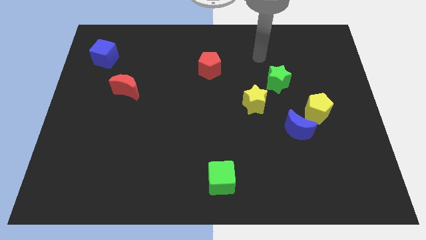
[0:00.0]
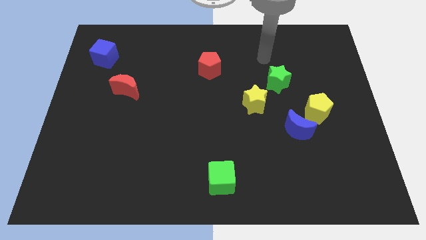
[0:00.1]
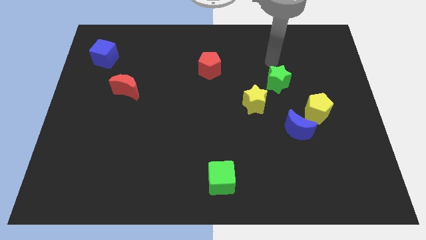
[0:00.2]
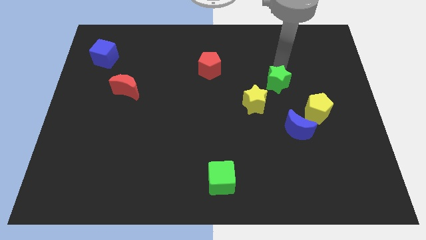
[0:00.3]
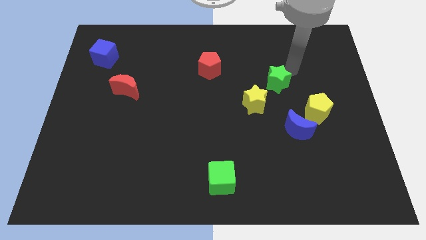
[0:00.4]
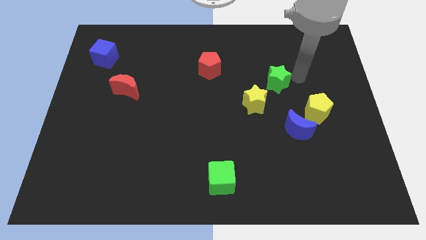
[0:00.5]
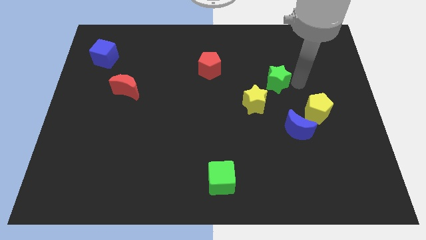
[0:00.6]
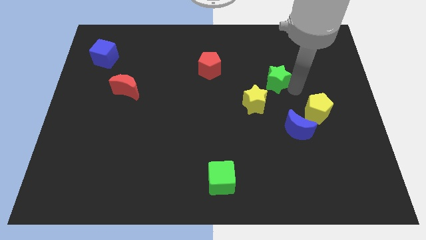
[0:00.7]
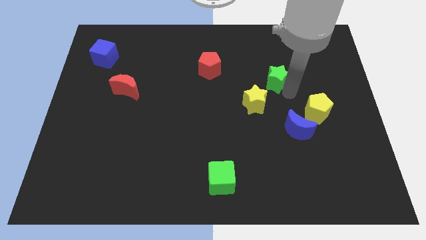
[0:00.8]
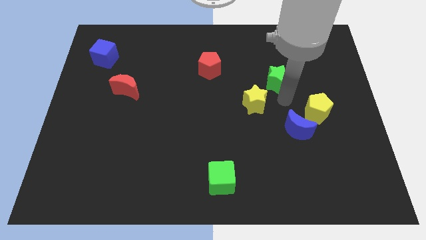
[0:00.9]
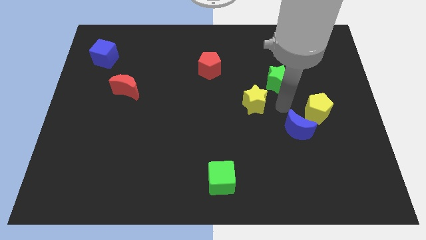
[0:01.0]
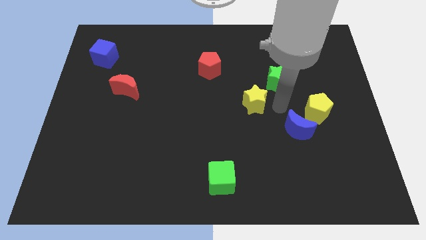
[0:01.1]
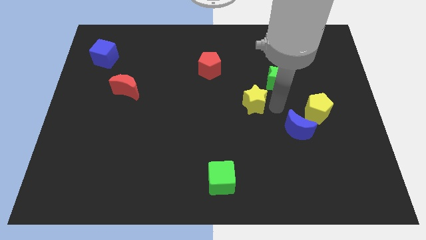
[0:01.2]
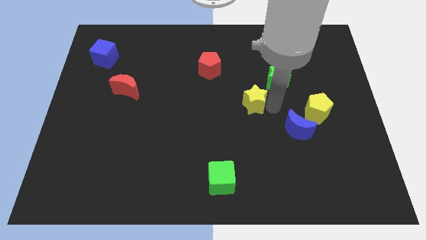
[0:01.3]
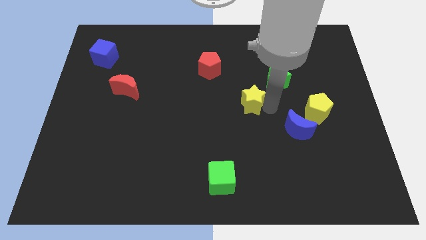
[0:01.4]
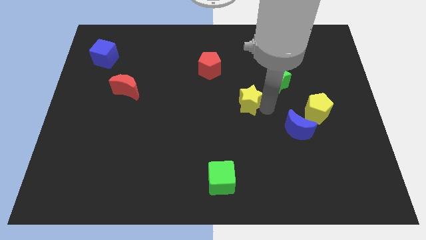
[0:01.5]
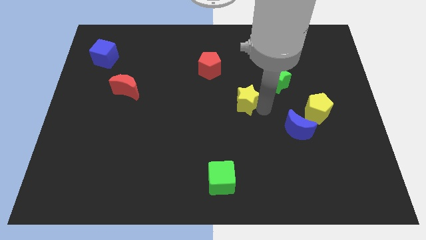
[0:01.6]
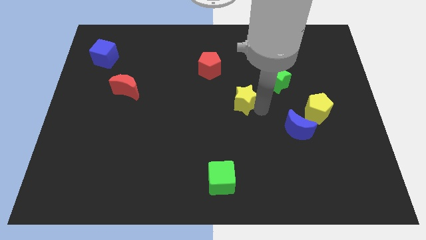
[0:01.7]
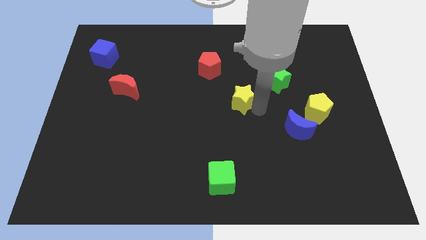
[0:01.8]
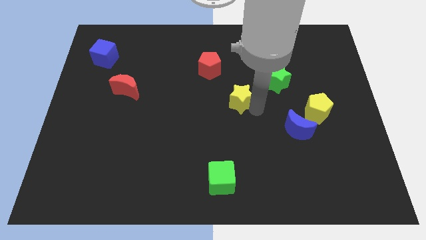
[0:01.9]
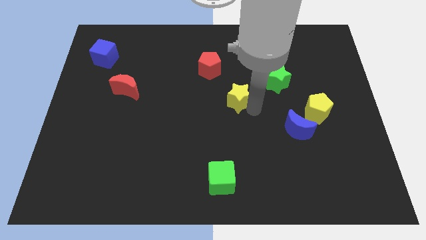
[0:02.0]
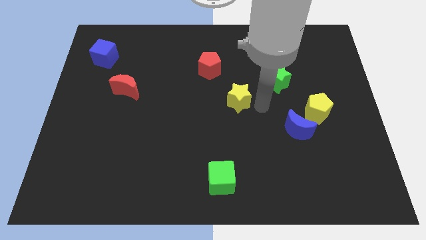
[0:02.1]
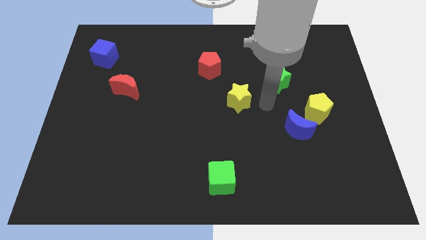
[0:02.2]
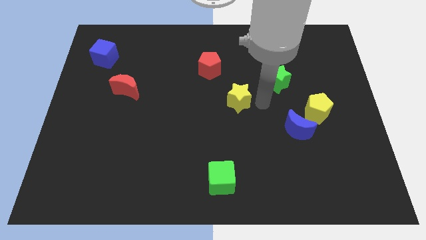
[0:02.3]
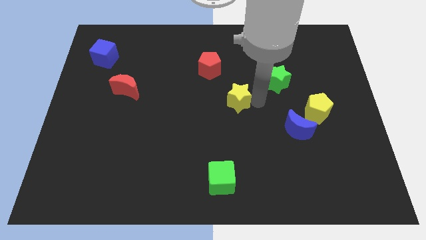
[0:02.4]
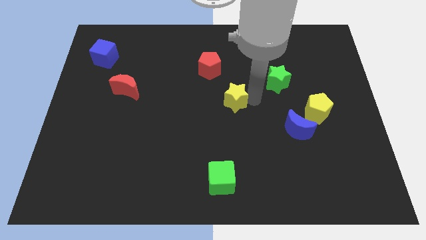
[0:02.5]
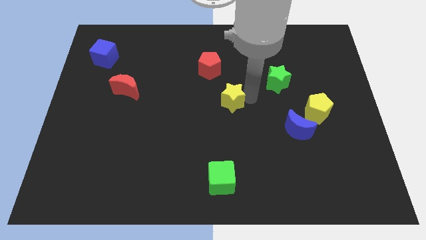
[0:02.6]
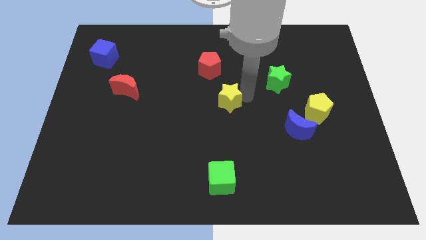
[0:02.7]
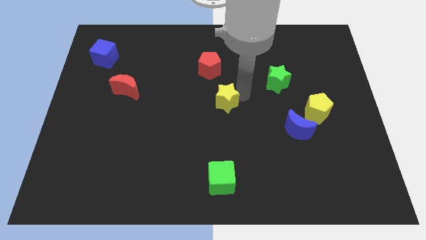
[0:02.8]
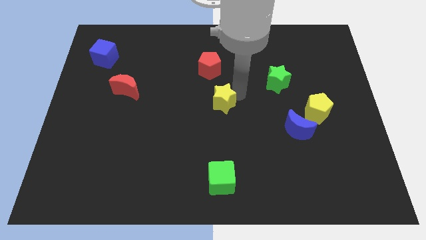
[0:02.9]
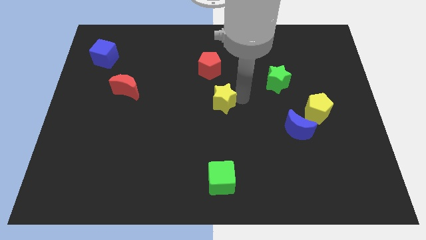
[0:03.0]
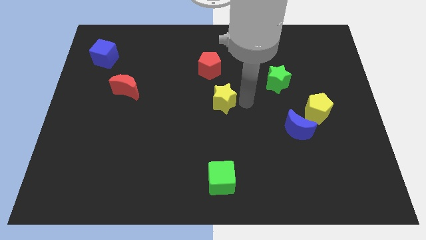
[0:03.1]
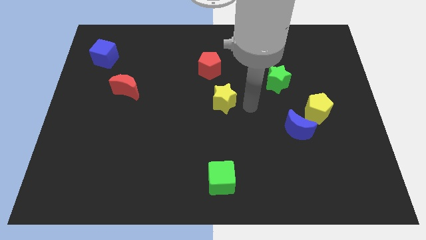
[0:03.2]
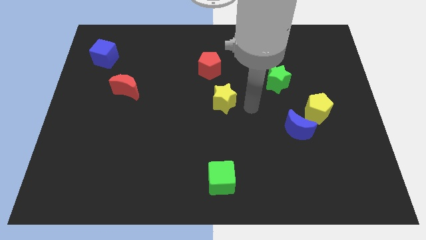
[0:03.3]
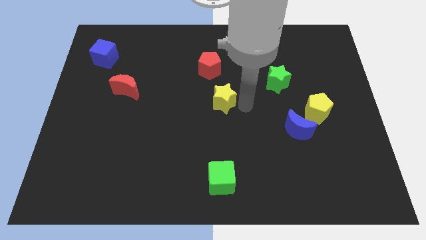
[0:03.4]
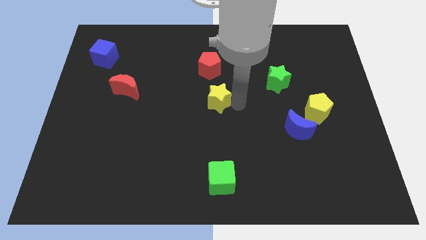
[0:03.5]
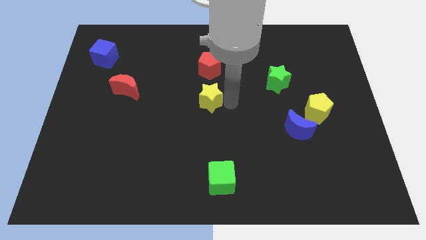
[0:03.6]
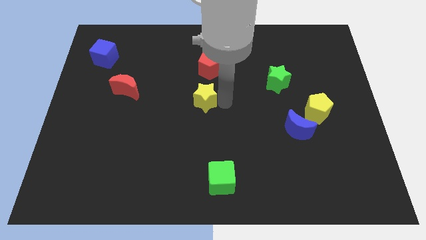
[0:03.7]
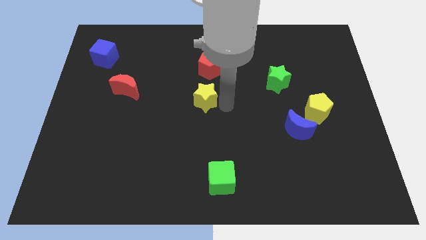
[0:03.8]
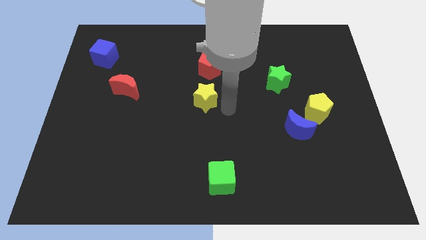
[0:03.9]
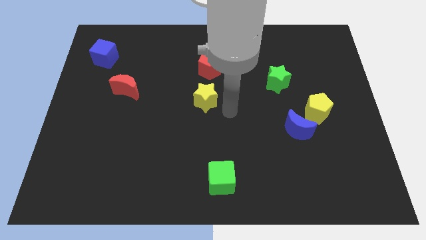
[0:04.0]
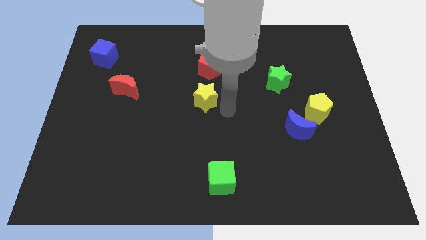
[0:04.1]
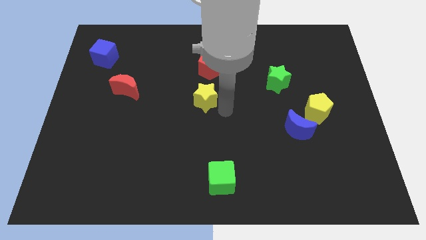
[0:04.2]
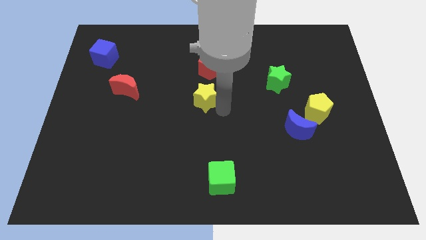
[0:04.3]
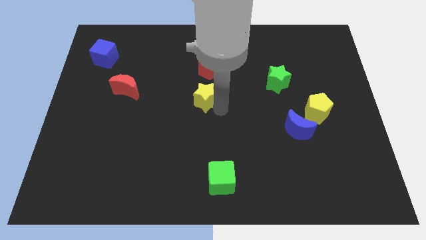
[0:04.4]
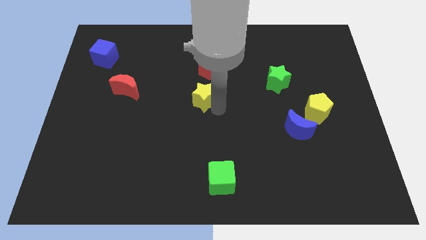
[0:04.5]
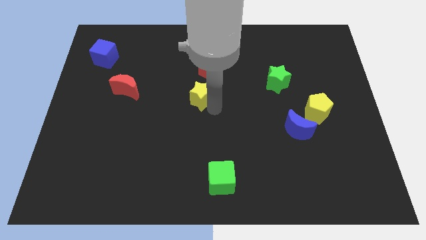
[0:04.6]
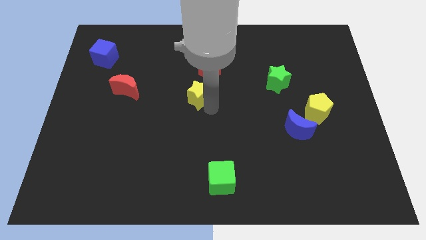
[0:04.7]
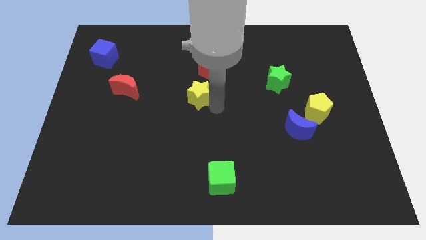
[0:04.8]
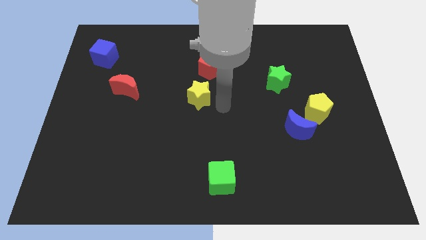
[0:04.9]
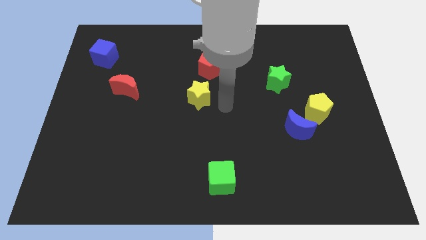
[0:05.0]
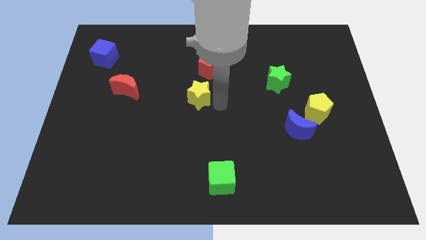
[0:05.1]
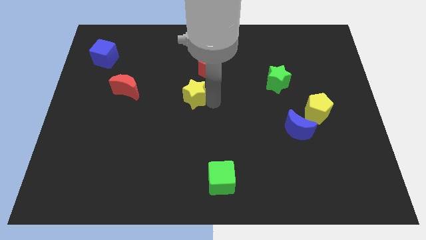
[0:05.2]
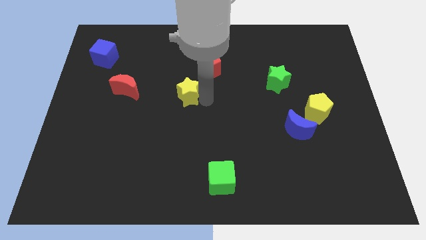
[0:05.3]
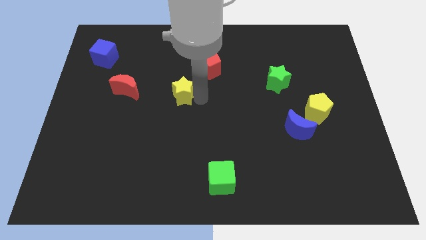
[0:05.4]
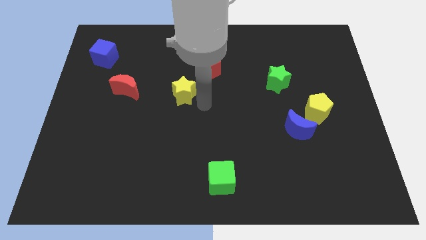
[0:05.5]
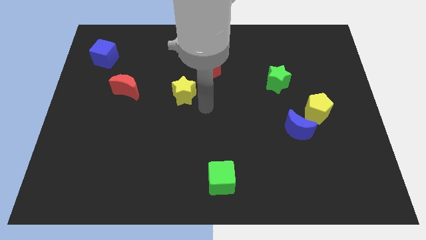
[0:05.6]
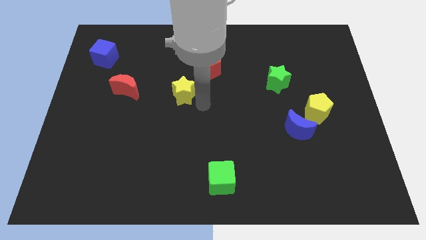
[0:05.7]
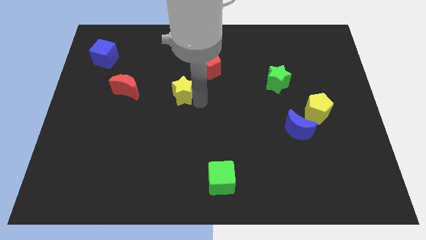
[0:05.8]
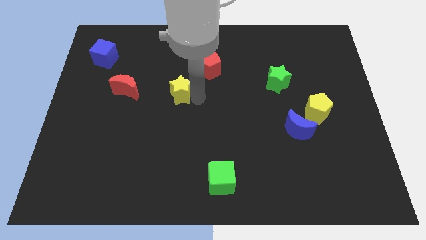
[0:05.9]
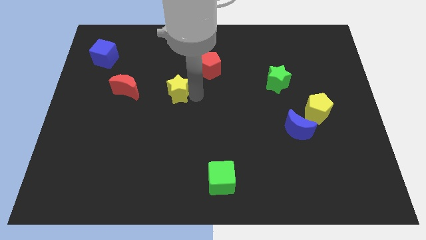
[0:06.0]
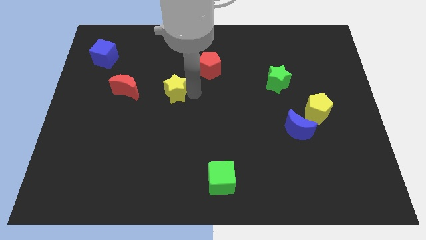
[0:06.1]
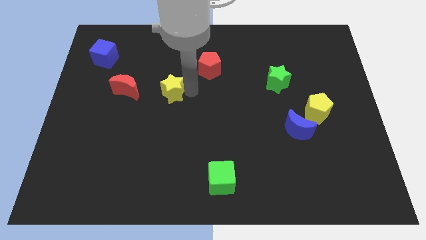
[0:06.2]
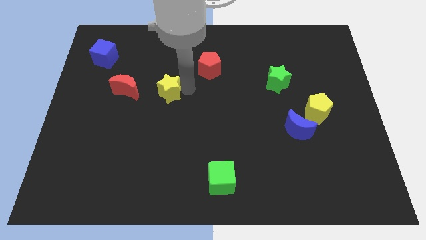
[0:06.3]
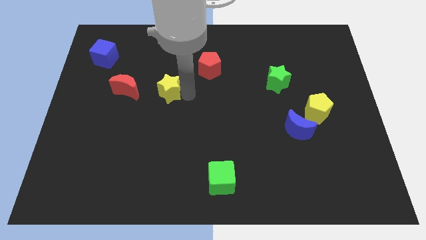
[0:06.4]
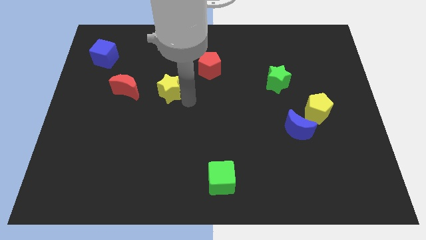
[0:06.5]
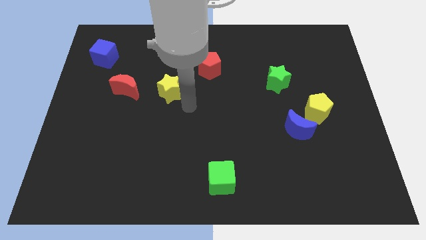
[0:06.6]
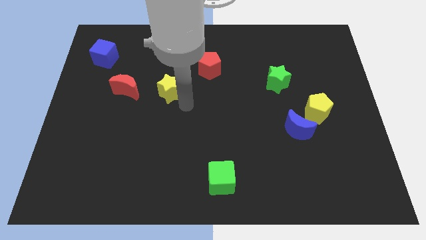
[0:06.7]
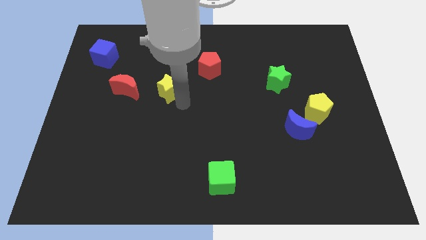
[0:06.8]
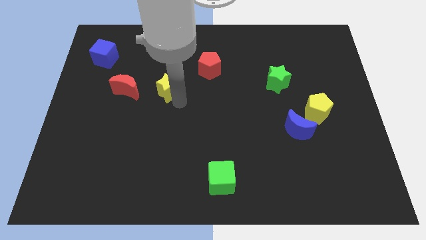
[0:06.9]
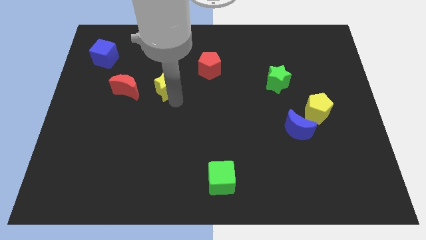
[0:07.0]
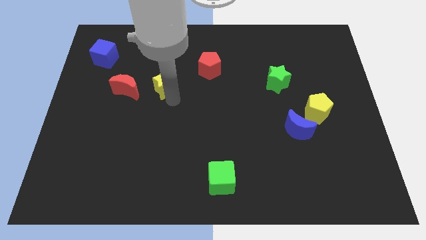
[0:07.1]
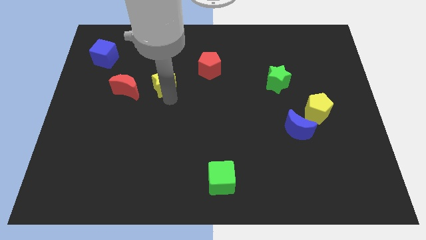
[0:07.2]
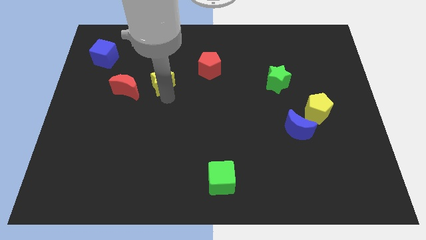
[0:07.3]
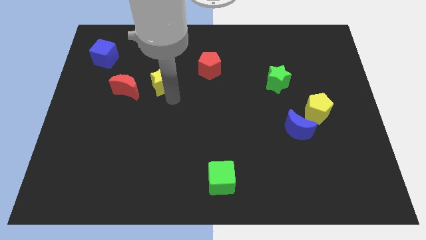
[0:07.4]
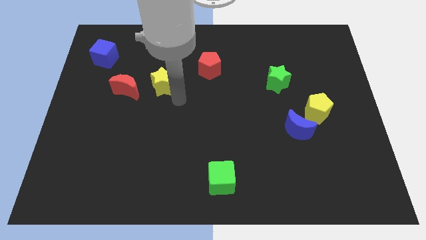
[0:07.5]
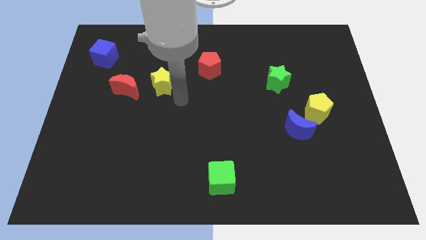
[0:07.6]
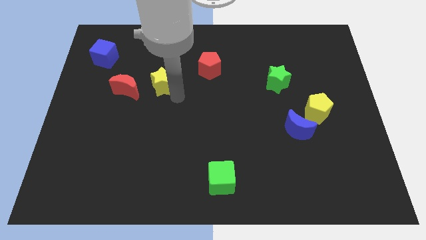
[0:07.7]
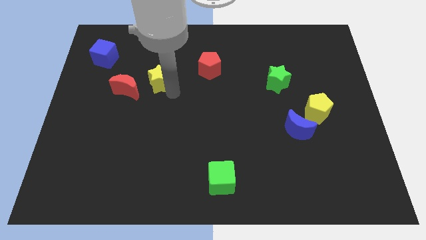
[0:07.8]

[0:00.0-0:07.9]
put the yellow star to the top right of the red moon

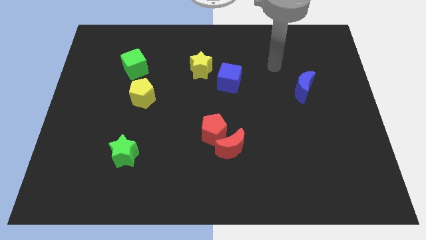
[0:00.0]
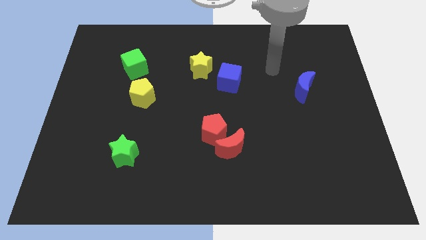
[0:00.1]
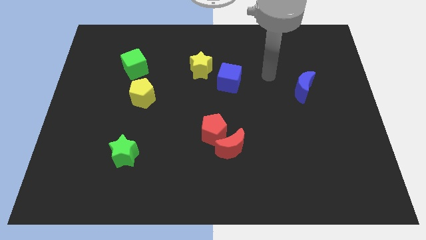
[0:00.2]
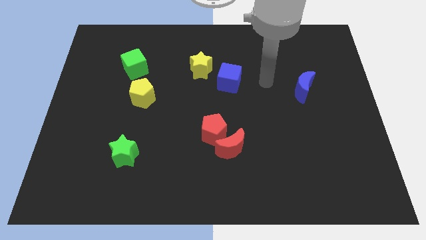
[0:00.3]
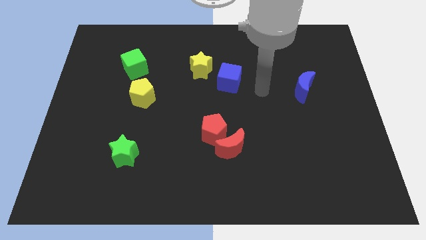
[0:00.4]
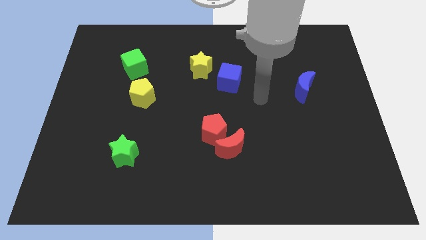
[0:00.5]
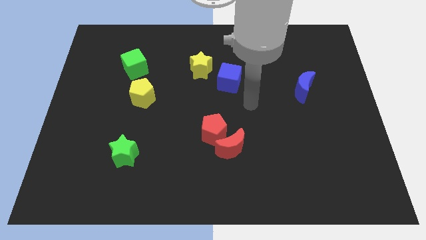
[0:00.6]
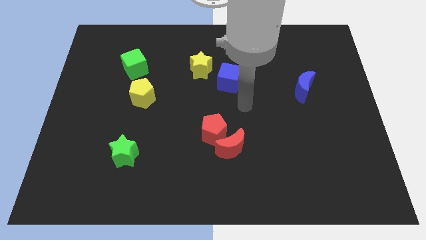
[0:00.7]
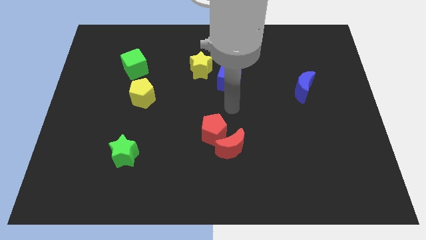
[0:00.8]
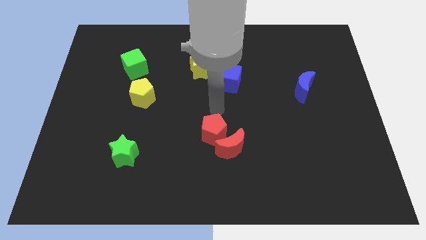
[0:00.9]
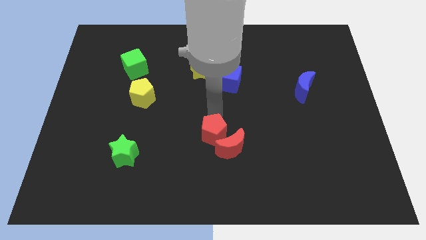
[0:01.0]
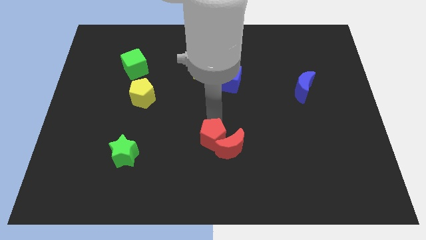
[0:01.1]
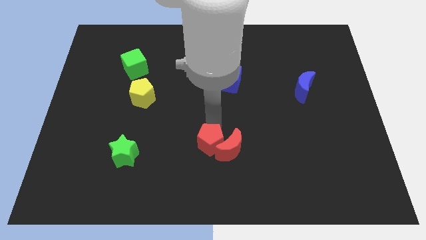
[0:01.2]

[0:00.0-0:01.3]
move the red pentagon diagonally down and to the left of the red moon
